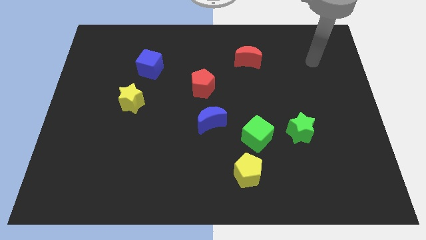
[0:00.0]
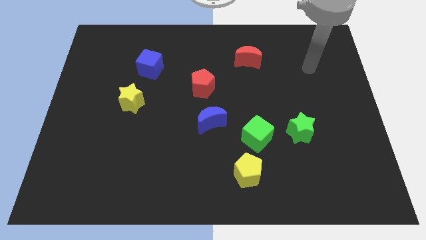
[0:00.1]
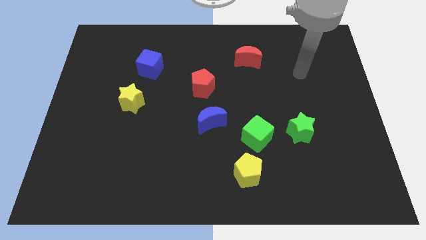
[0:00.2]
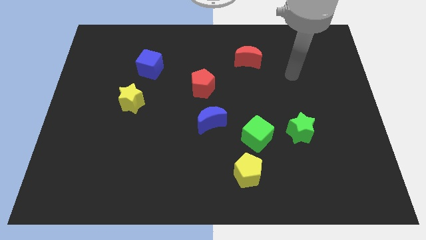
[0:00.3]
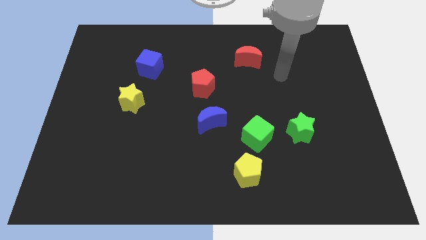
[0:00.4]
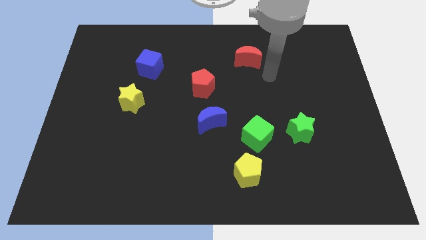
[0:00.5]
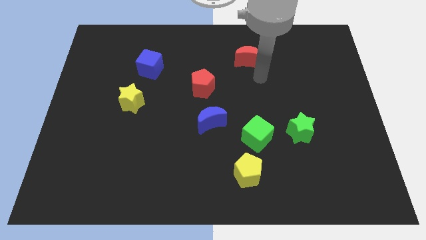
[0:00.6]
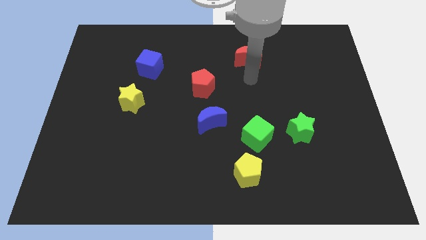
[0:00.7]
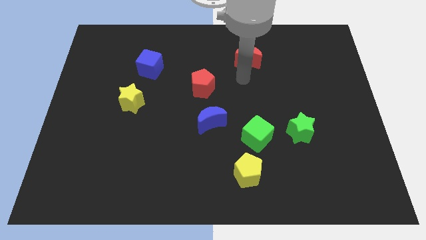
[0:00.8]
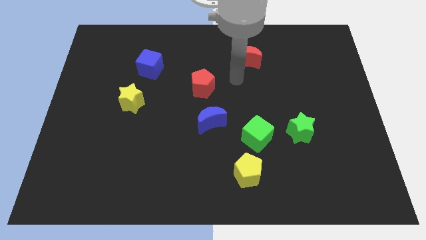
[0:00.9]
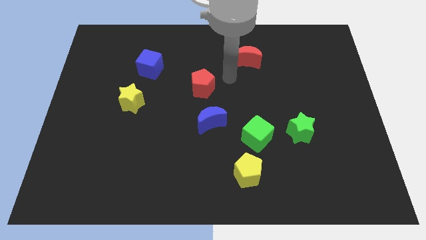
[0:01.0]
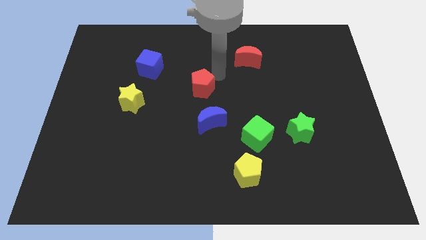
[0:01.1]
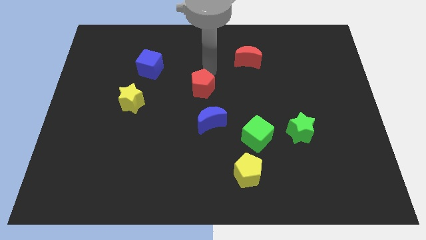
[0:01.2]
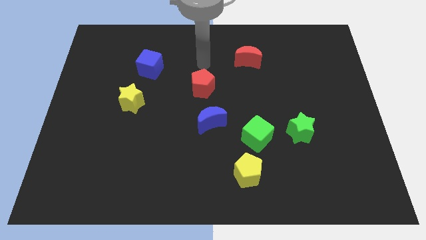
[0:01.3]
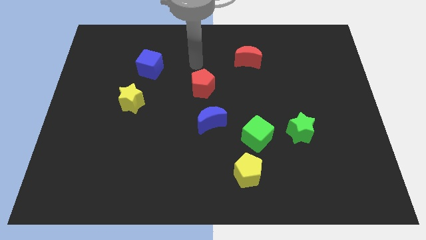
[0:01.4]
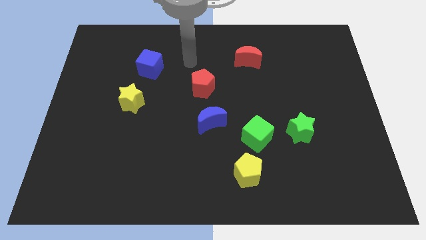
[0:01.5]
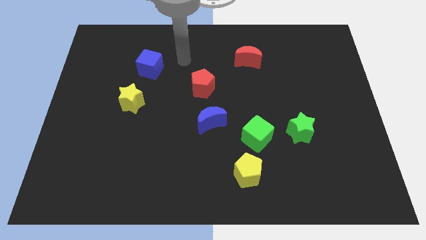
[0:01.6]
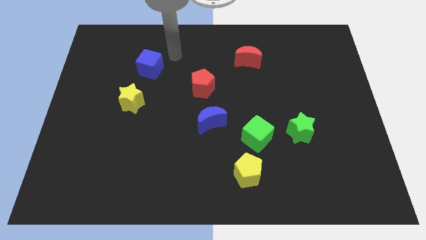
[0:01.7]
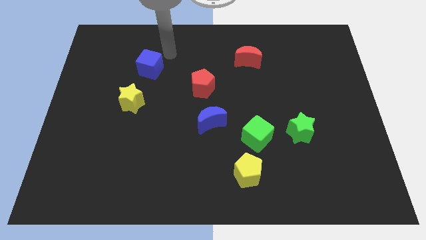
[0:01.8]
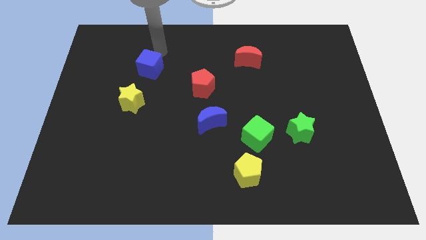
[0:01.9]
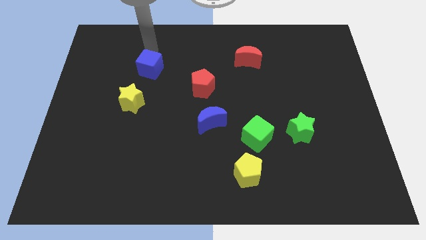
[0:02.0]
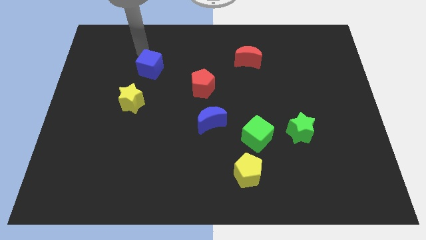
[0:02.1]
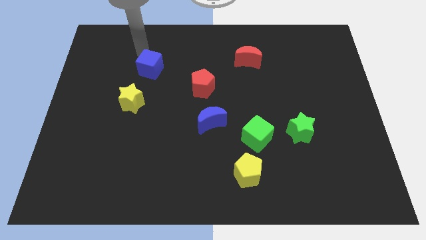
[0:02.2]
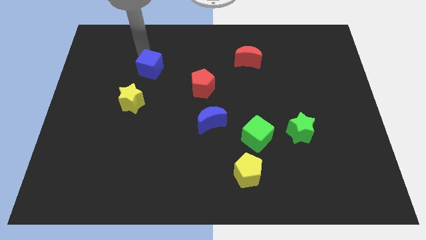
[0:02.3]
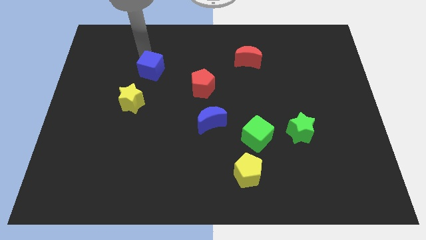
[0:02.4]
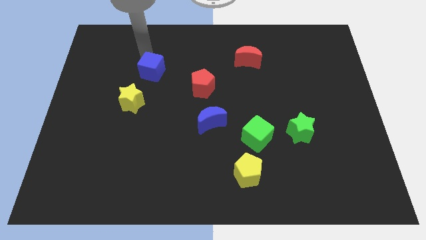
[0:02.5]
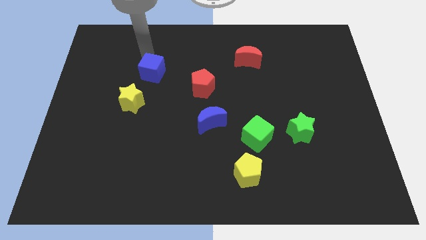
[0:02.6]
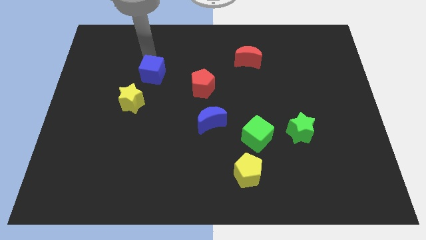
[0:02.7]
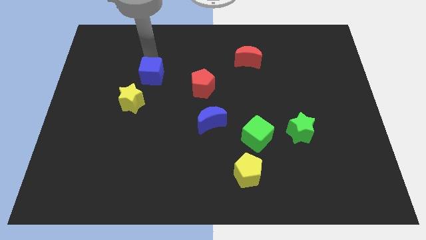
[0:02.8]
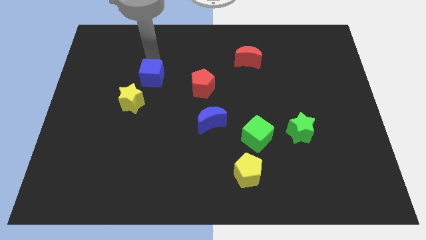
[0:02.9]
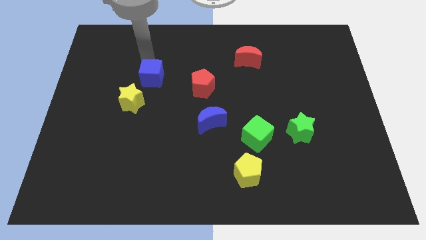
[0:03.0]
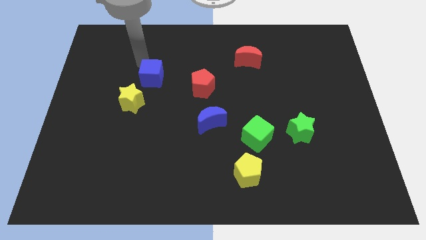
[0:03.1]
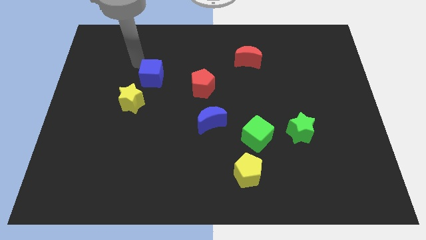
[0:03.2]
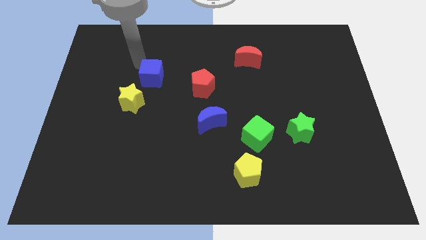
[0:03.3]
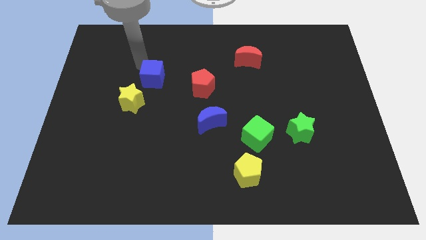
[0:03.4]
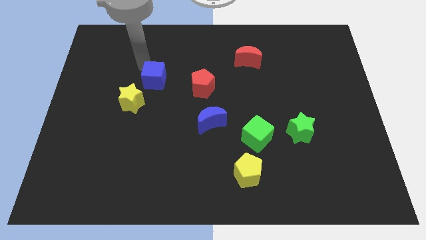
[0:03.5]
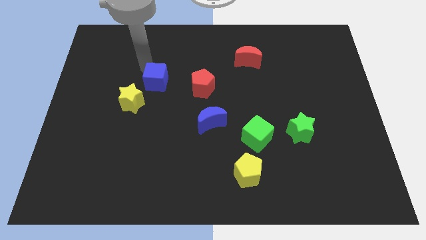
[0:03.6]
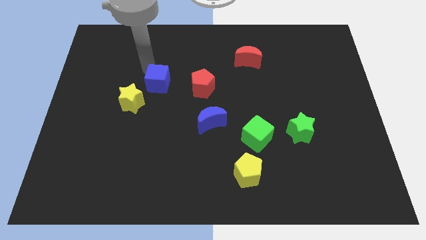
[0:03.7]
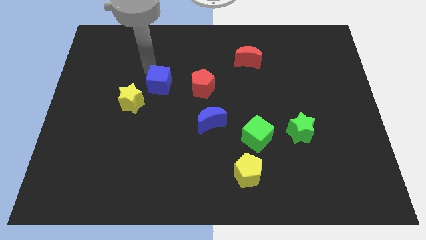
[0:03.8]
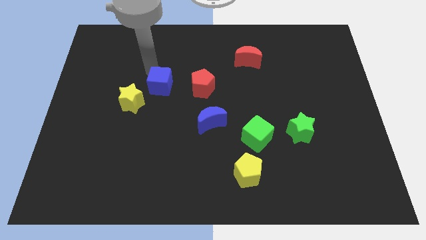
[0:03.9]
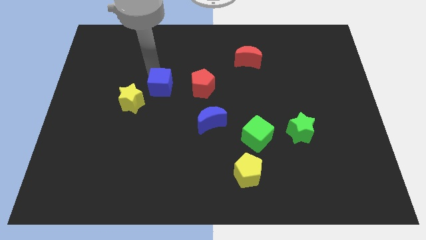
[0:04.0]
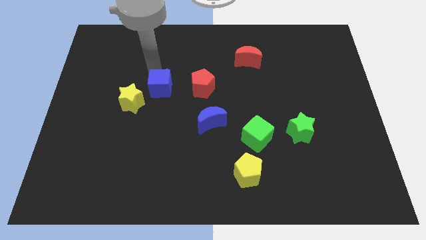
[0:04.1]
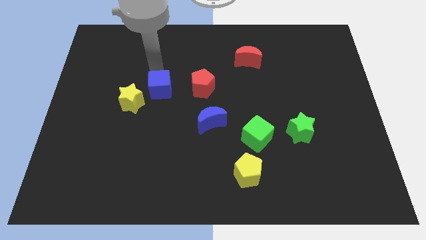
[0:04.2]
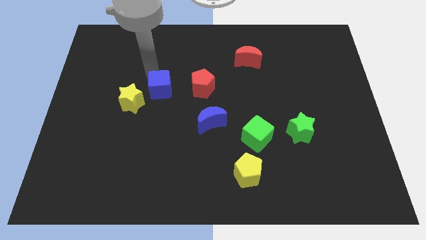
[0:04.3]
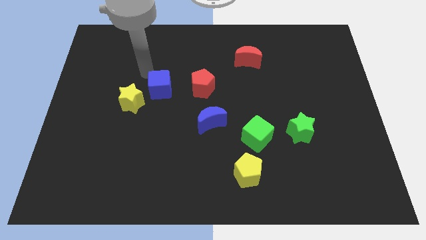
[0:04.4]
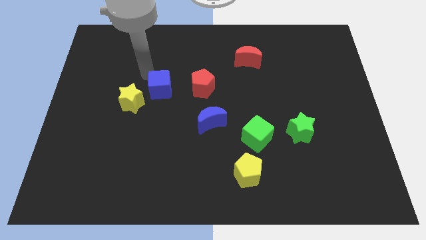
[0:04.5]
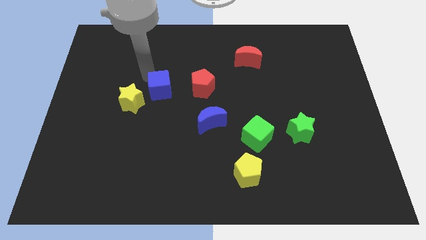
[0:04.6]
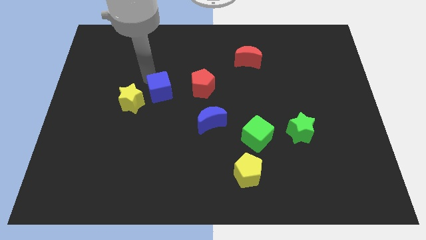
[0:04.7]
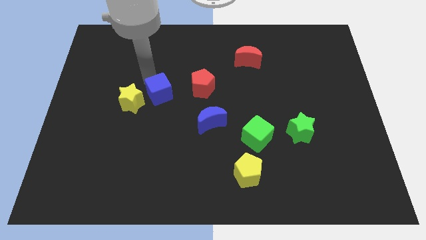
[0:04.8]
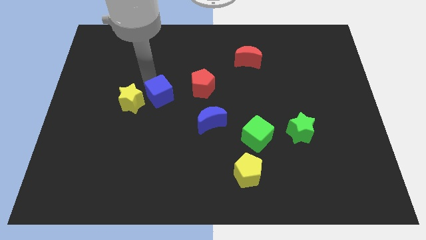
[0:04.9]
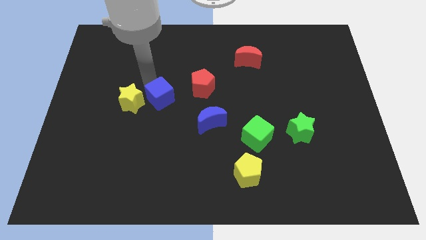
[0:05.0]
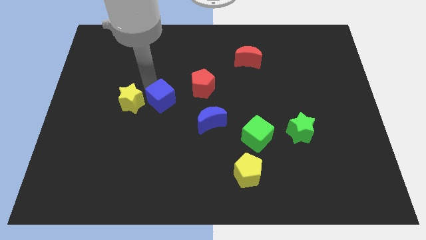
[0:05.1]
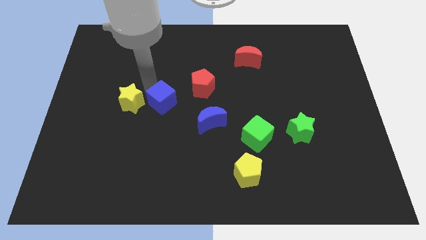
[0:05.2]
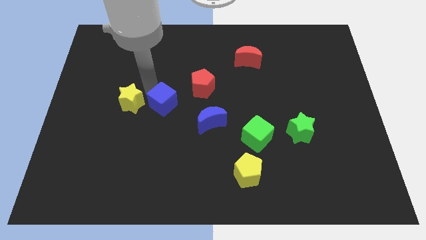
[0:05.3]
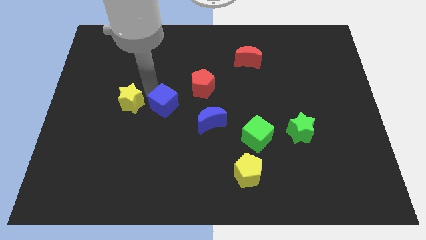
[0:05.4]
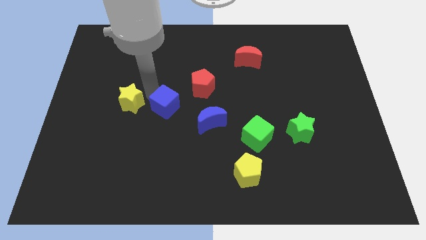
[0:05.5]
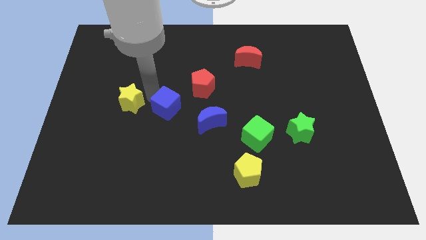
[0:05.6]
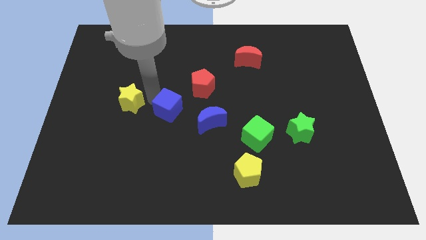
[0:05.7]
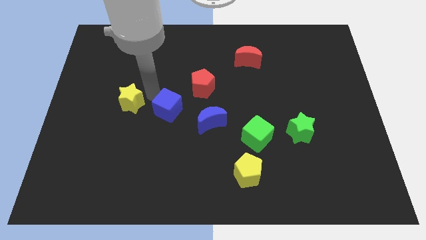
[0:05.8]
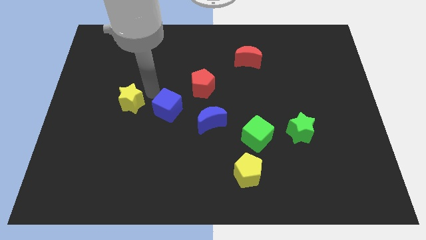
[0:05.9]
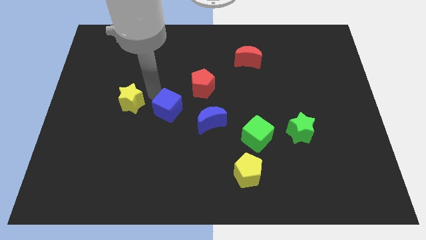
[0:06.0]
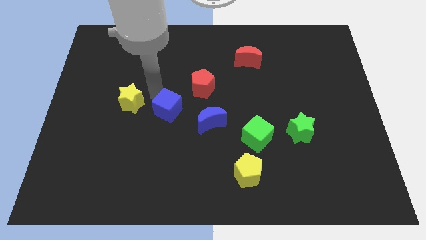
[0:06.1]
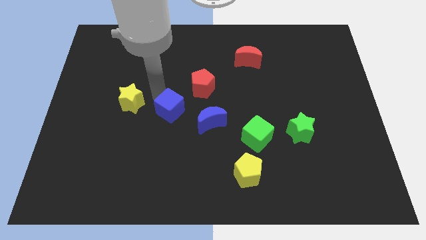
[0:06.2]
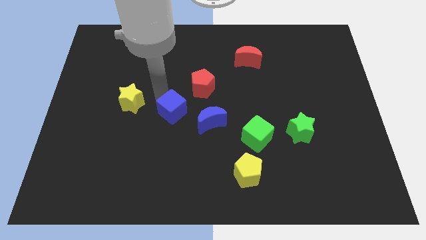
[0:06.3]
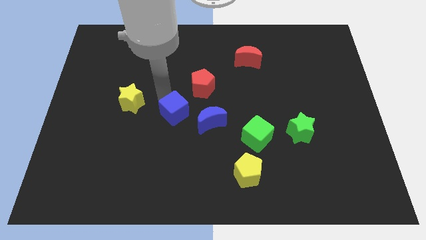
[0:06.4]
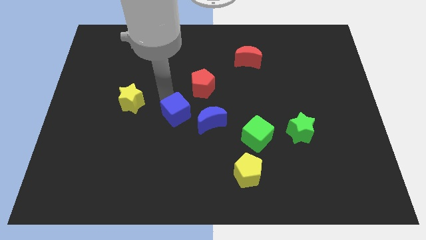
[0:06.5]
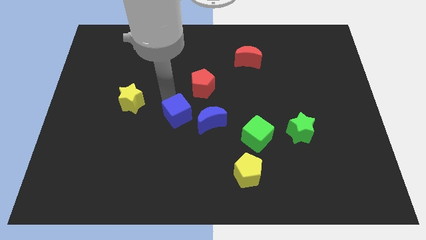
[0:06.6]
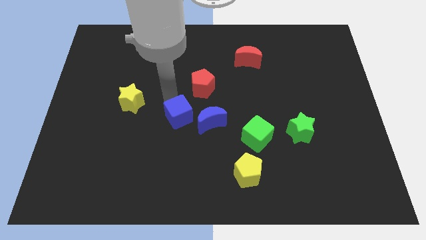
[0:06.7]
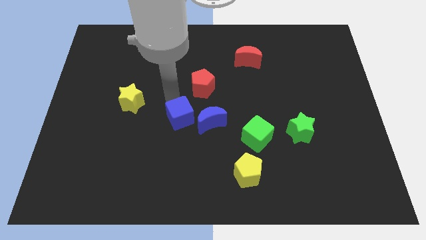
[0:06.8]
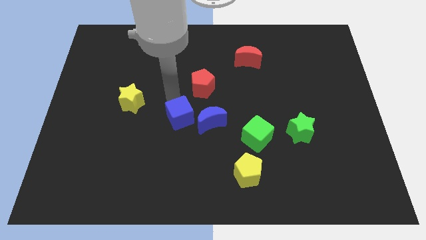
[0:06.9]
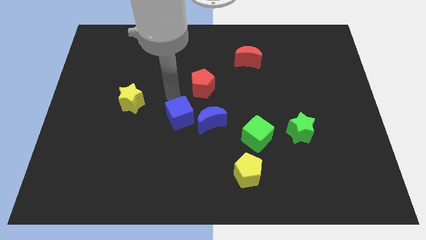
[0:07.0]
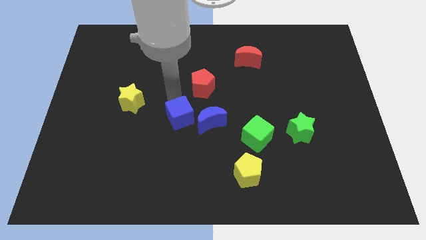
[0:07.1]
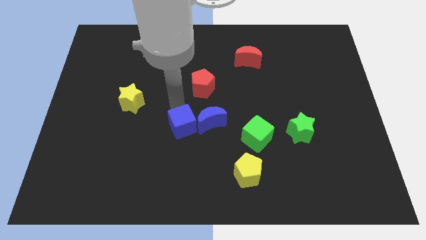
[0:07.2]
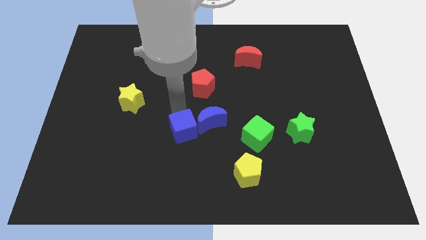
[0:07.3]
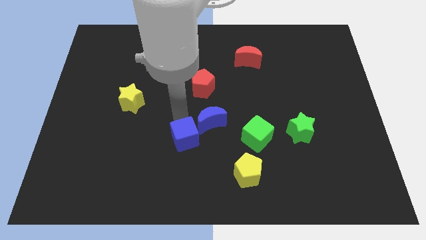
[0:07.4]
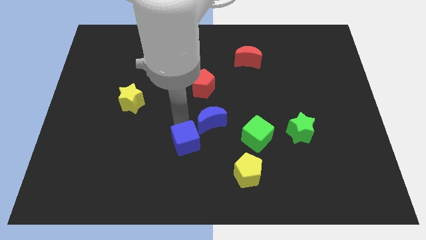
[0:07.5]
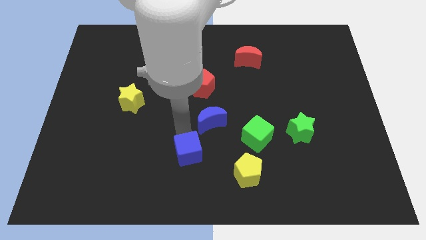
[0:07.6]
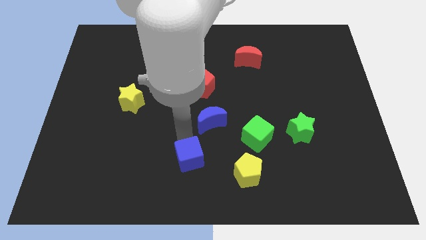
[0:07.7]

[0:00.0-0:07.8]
slide the blue cube to the bottom
